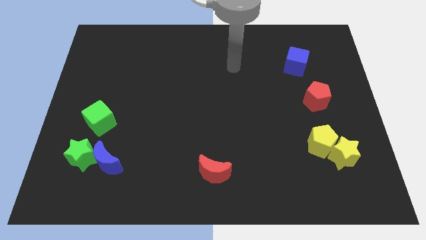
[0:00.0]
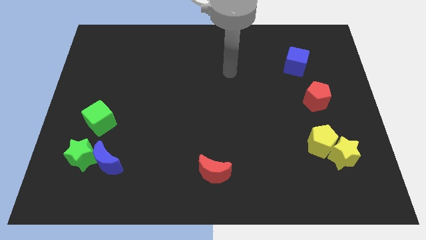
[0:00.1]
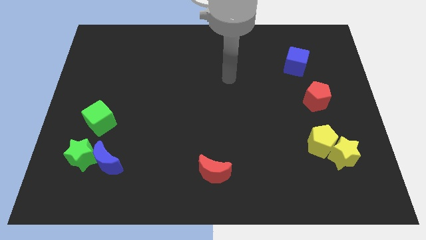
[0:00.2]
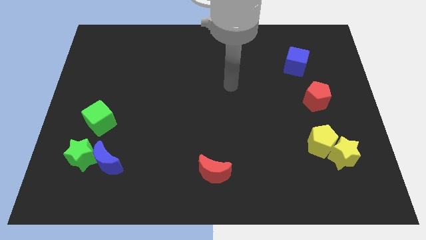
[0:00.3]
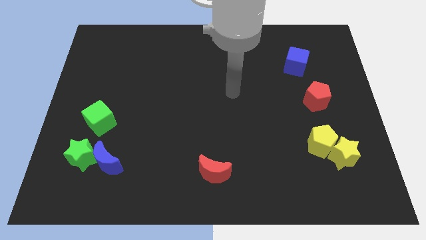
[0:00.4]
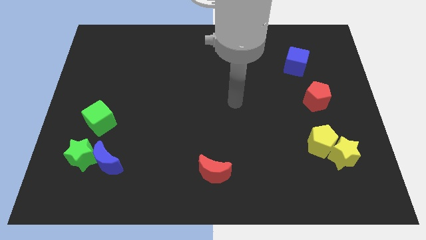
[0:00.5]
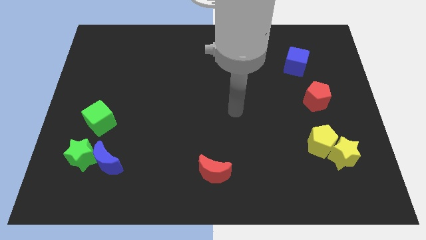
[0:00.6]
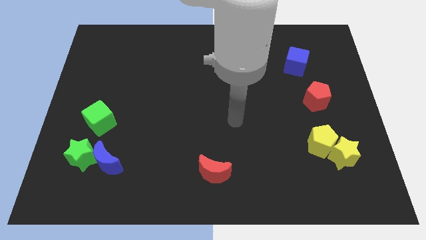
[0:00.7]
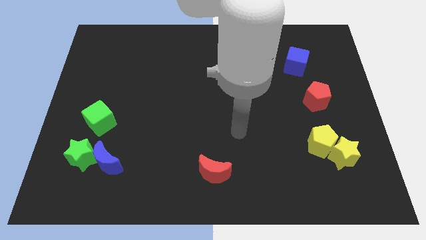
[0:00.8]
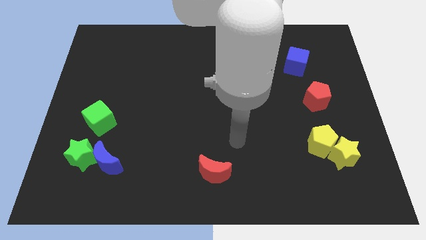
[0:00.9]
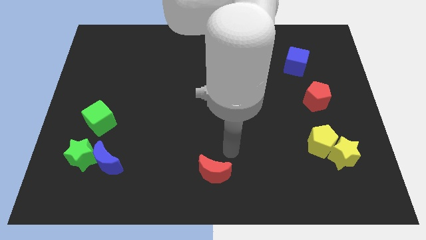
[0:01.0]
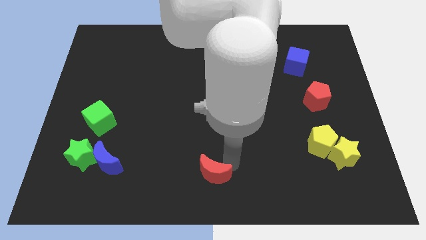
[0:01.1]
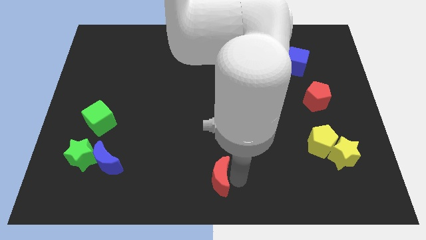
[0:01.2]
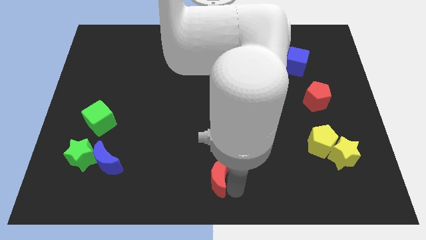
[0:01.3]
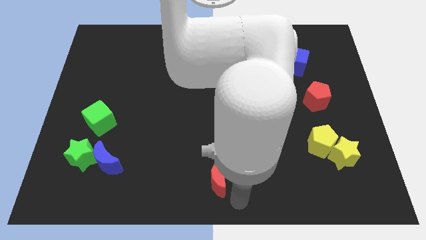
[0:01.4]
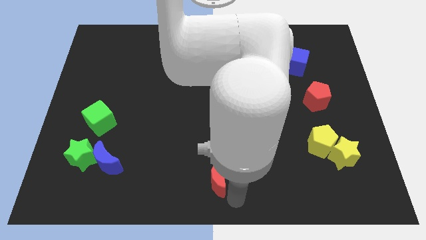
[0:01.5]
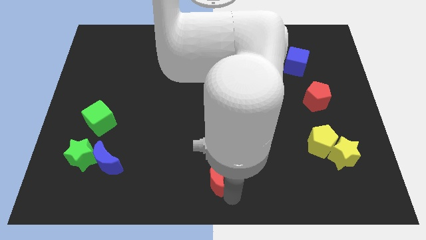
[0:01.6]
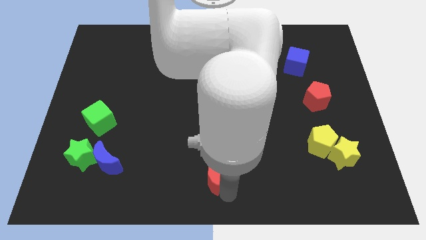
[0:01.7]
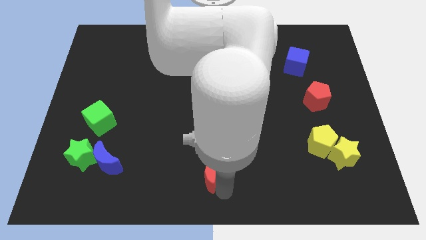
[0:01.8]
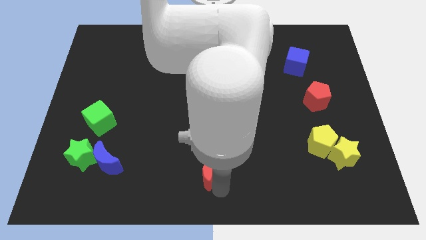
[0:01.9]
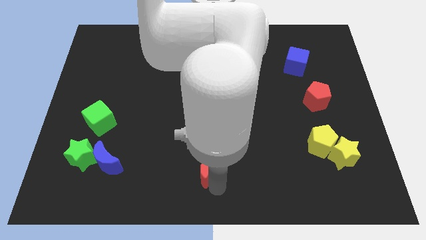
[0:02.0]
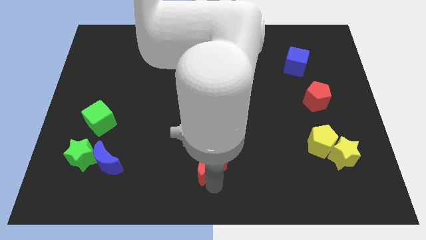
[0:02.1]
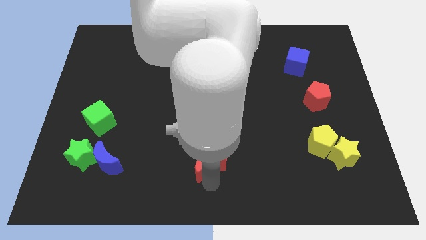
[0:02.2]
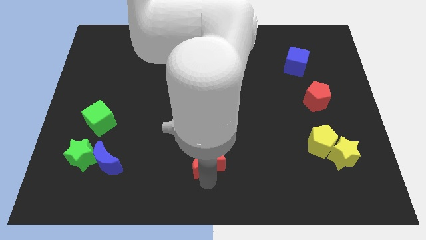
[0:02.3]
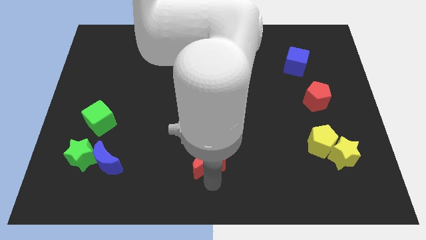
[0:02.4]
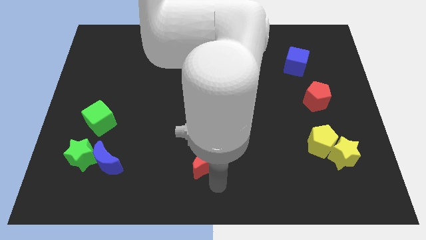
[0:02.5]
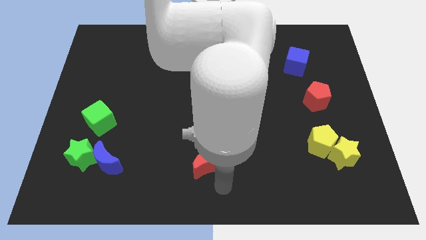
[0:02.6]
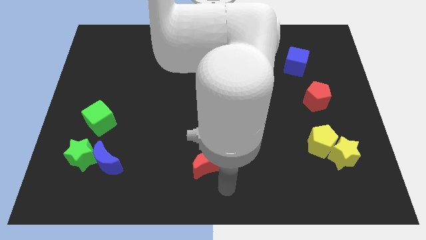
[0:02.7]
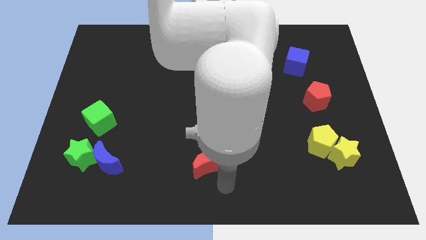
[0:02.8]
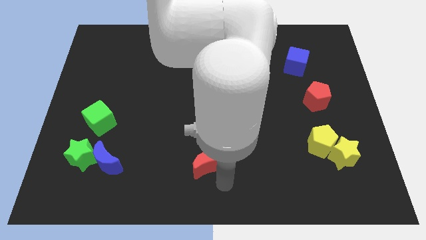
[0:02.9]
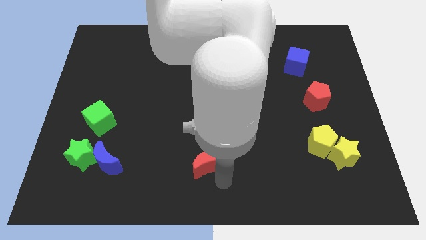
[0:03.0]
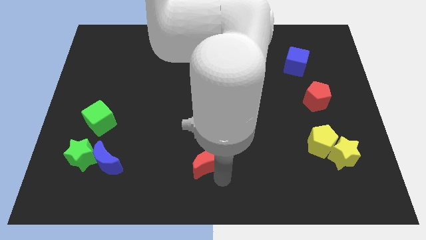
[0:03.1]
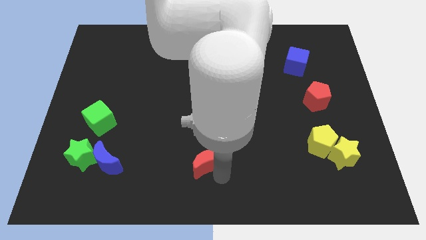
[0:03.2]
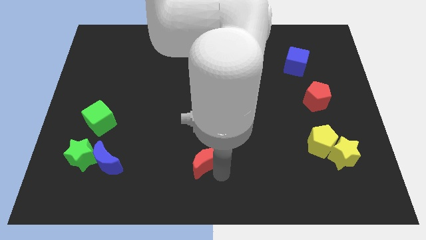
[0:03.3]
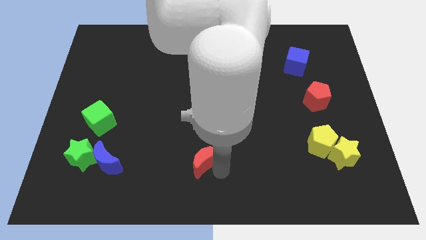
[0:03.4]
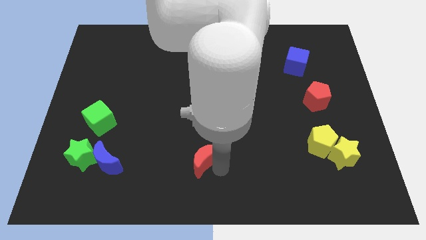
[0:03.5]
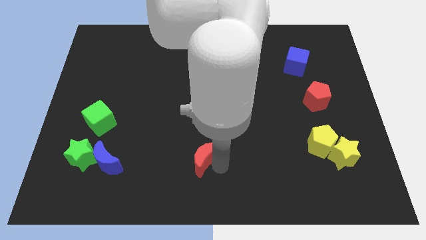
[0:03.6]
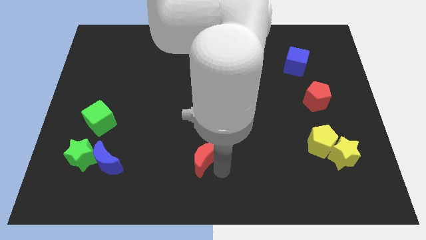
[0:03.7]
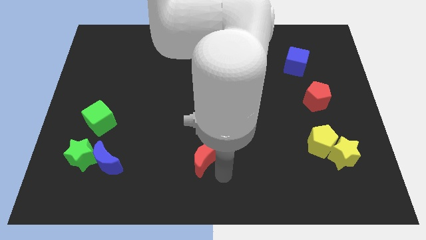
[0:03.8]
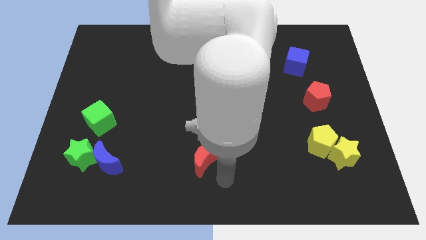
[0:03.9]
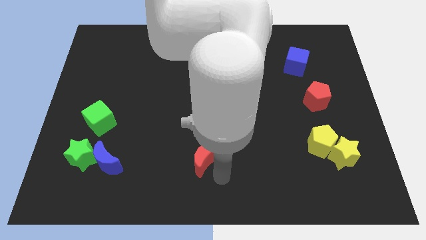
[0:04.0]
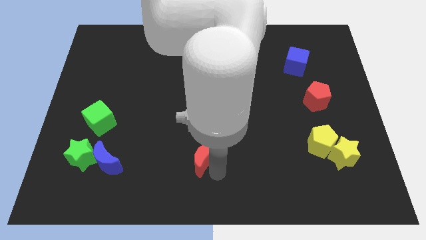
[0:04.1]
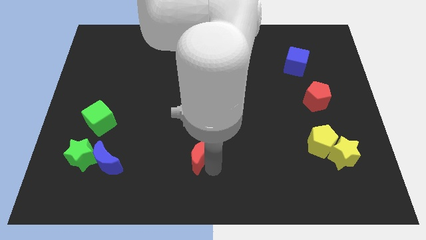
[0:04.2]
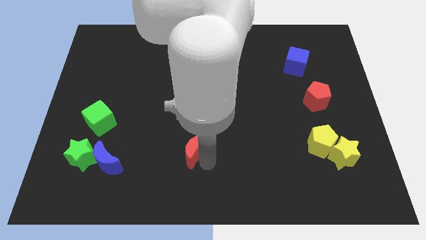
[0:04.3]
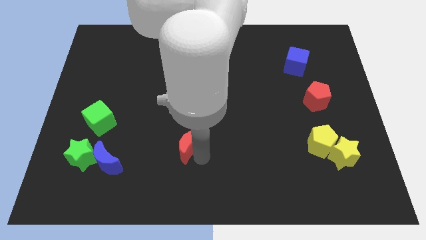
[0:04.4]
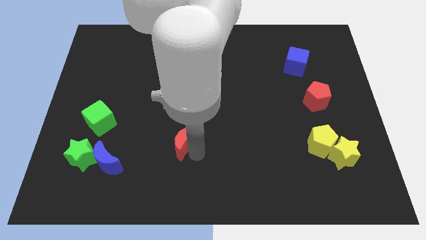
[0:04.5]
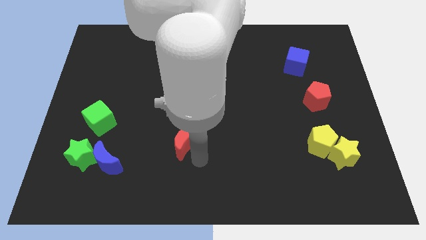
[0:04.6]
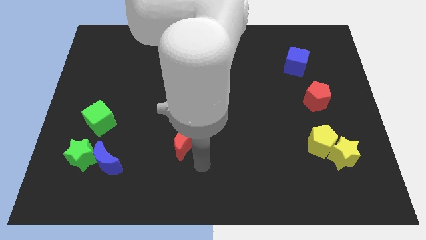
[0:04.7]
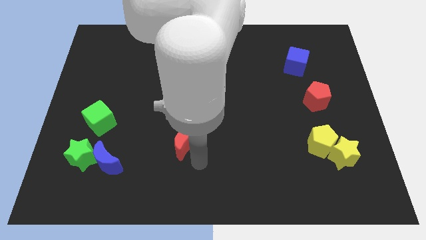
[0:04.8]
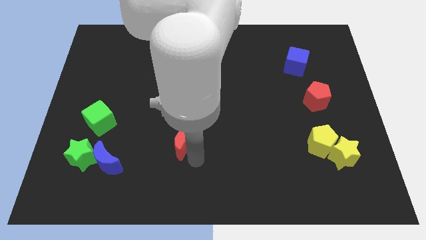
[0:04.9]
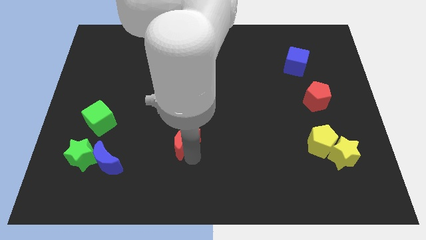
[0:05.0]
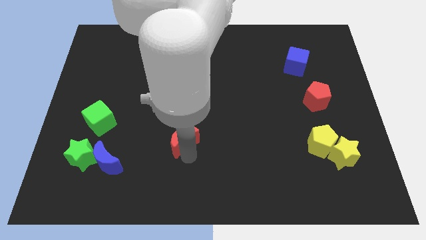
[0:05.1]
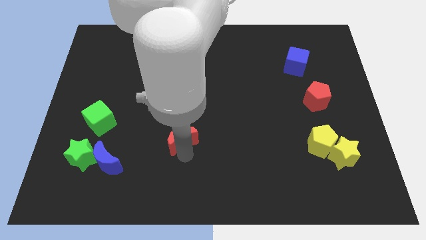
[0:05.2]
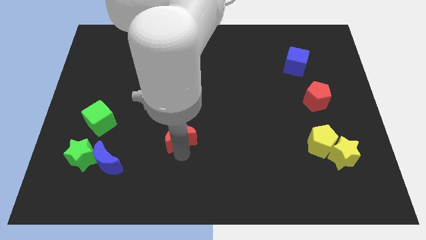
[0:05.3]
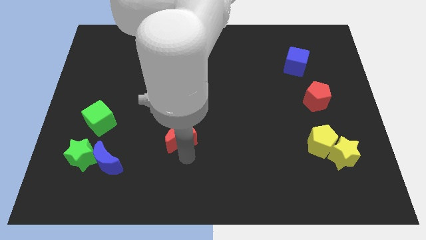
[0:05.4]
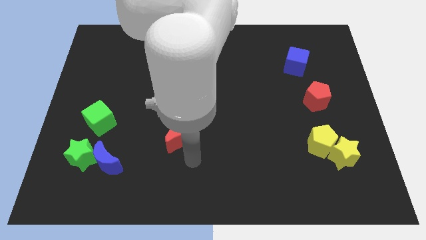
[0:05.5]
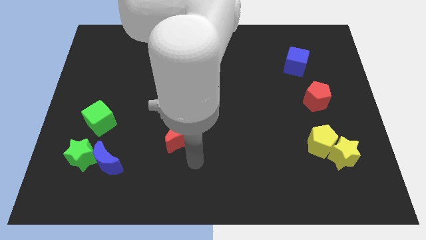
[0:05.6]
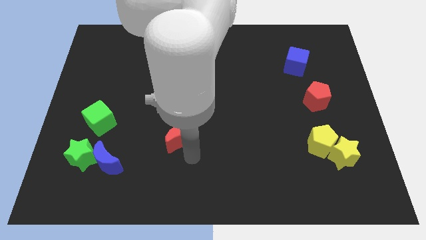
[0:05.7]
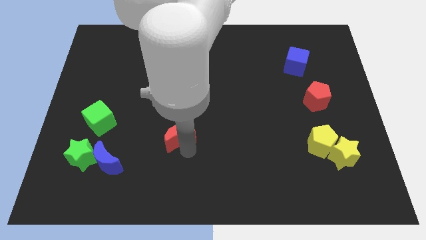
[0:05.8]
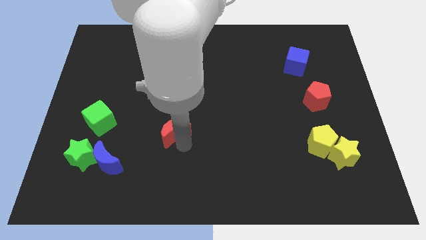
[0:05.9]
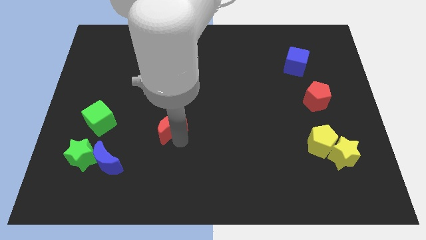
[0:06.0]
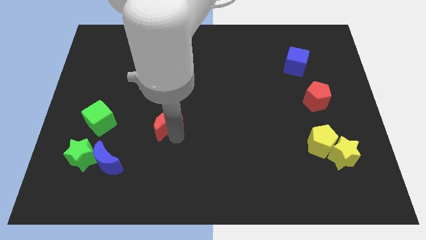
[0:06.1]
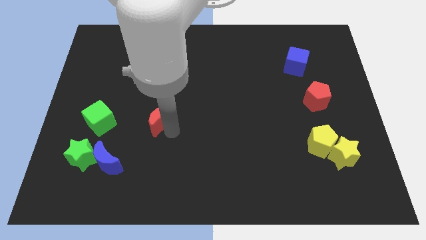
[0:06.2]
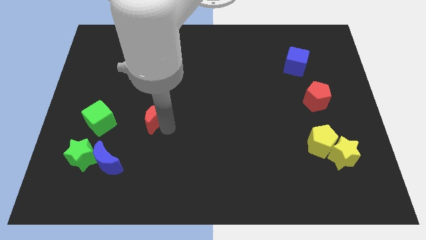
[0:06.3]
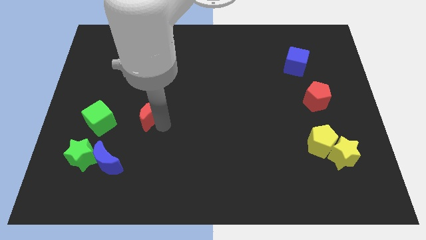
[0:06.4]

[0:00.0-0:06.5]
slide the red moon diagonally up and left

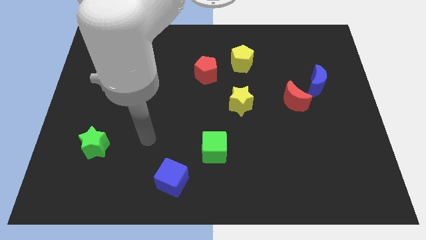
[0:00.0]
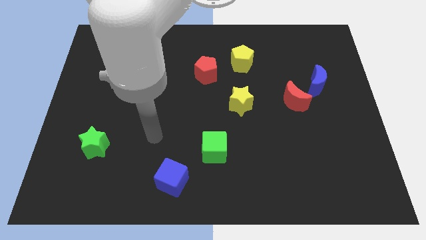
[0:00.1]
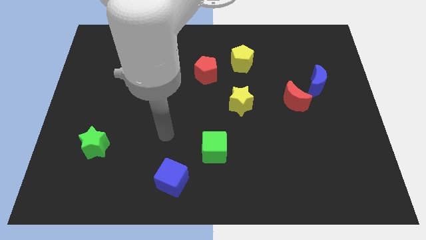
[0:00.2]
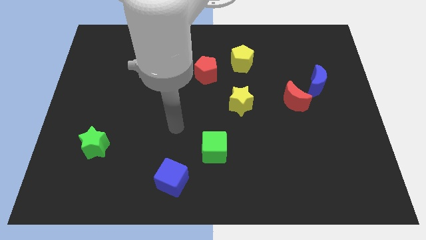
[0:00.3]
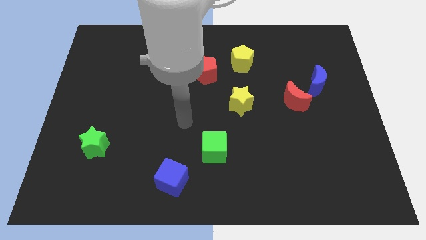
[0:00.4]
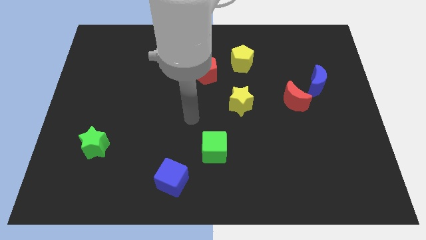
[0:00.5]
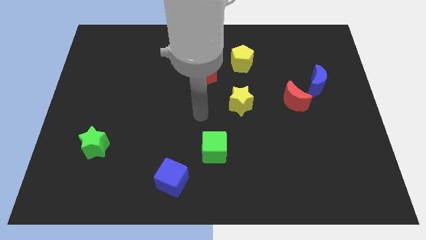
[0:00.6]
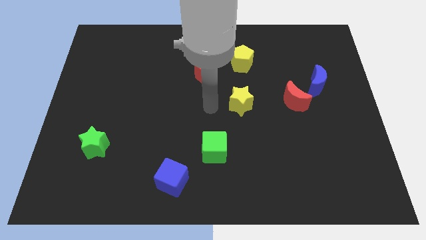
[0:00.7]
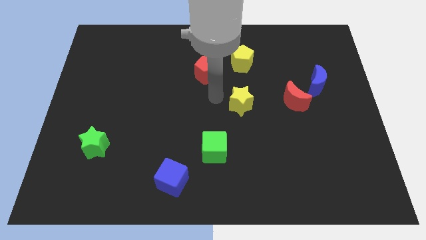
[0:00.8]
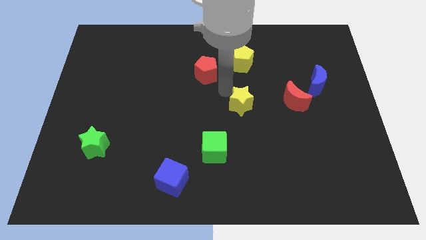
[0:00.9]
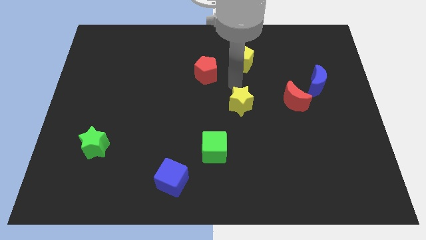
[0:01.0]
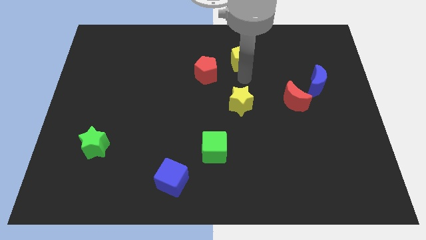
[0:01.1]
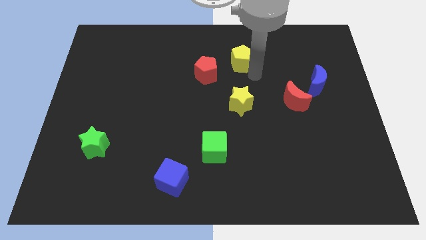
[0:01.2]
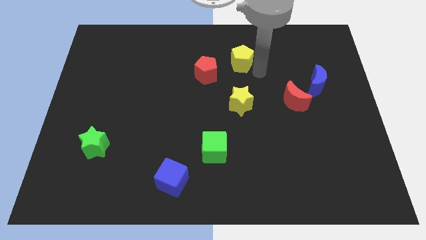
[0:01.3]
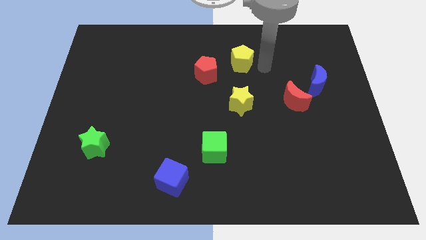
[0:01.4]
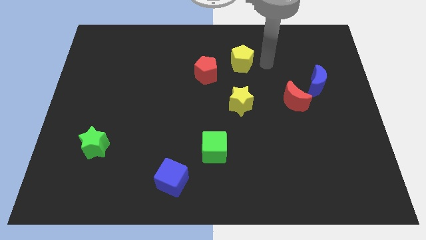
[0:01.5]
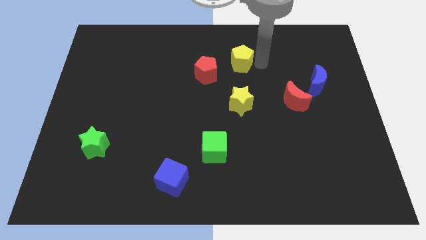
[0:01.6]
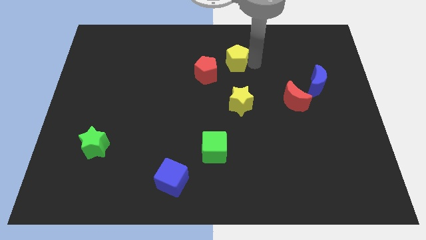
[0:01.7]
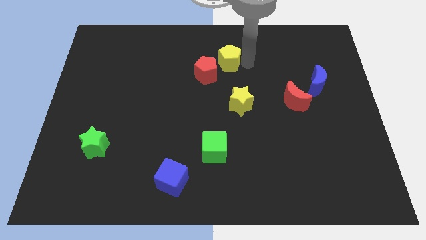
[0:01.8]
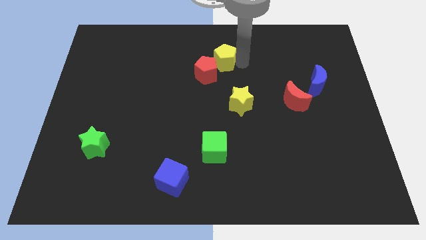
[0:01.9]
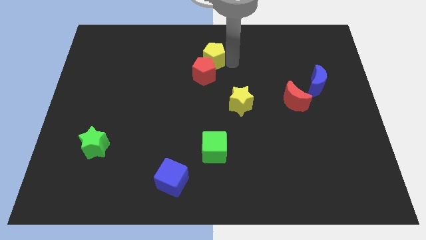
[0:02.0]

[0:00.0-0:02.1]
slide the yellow pentagon to the left somewhat
